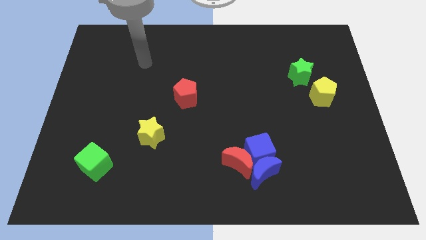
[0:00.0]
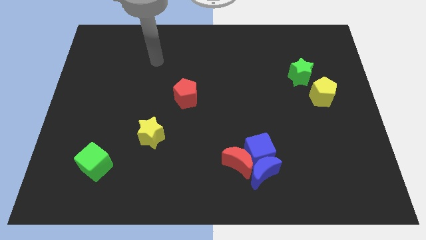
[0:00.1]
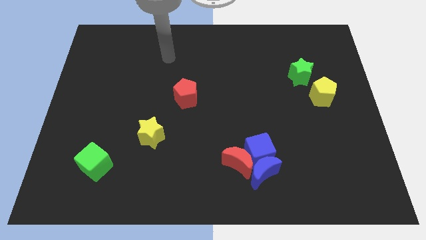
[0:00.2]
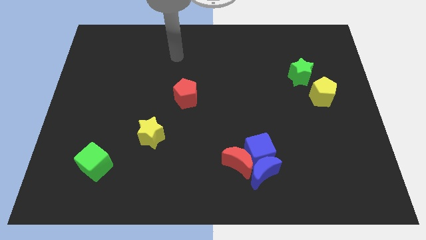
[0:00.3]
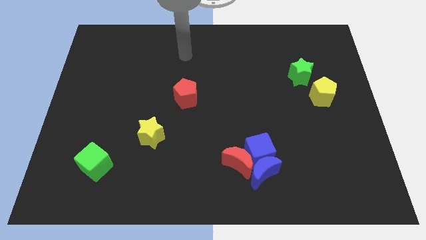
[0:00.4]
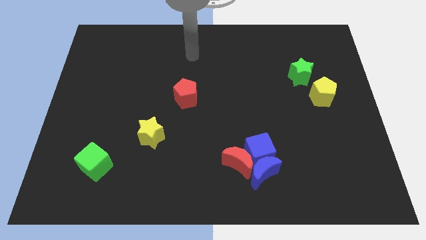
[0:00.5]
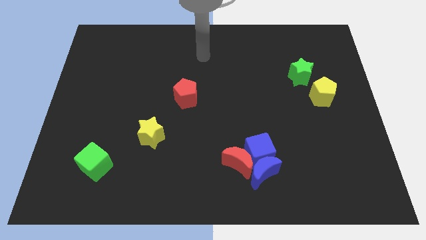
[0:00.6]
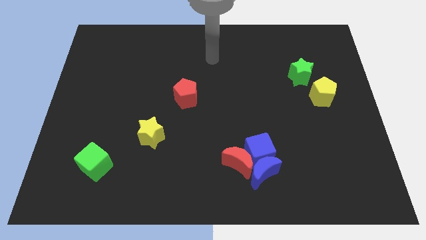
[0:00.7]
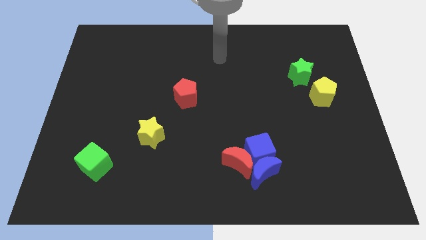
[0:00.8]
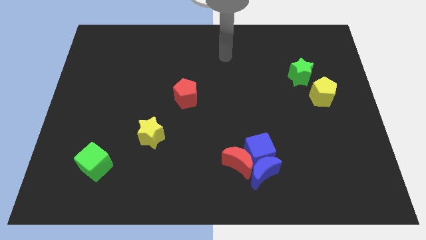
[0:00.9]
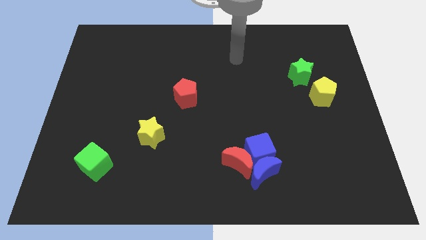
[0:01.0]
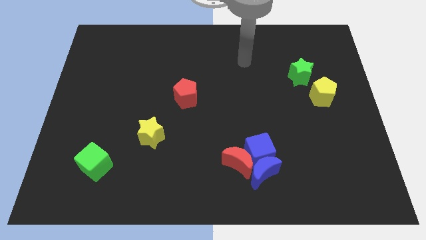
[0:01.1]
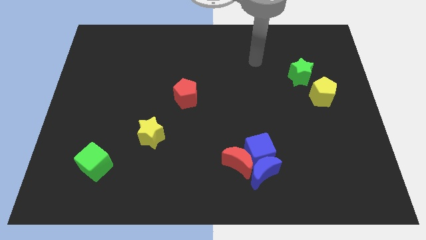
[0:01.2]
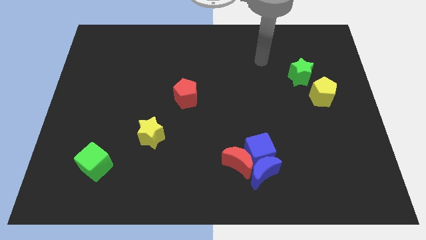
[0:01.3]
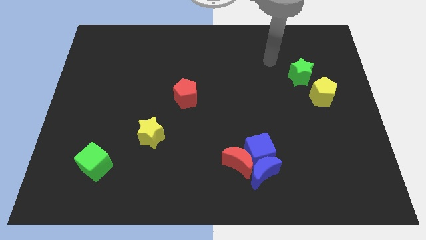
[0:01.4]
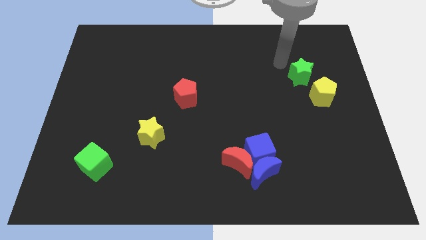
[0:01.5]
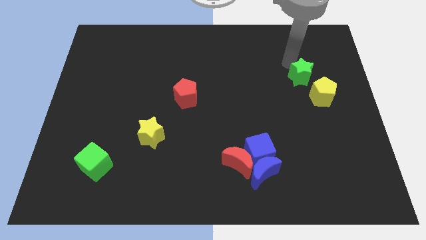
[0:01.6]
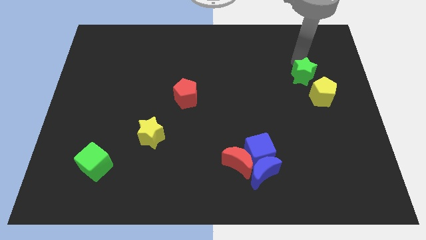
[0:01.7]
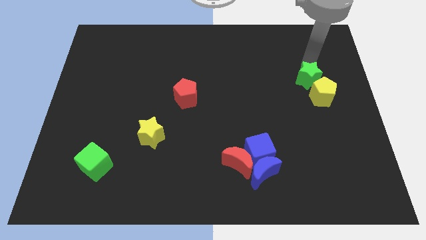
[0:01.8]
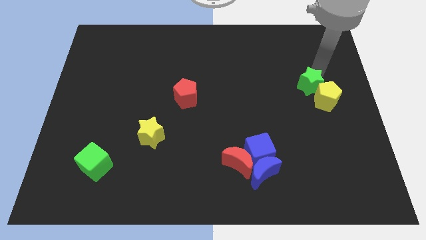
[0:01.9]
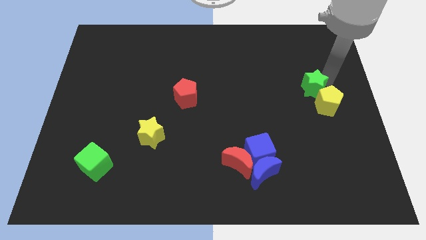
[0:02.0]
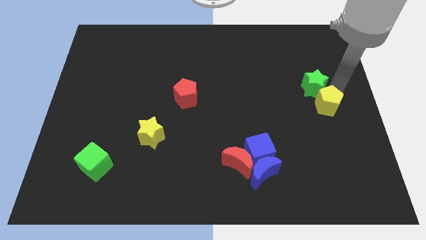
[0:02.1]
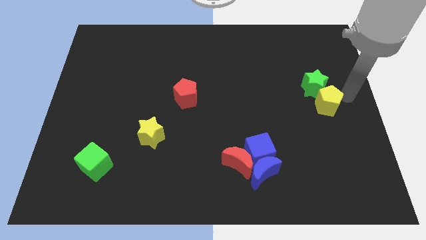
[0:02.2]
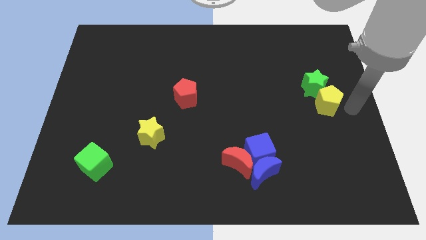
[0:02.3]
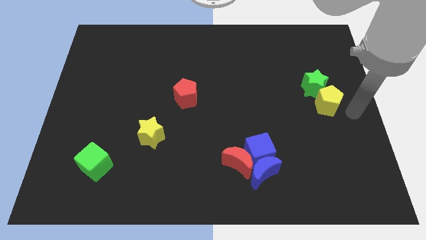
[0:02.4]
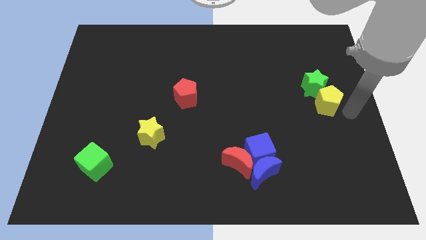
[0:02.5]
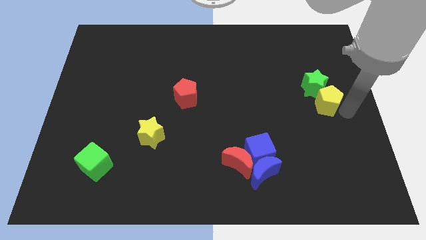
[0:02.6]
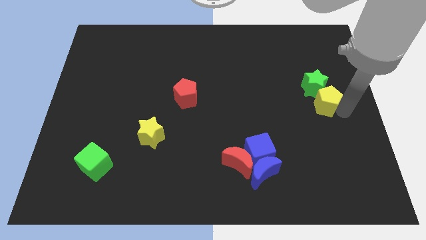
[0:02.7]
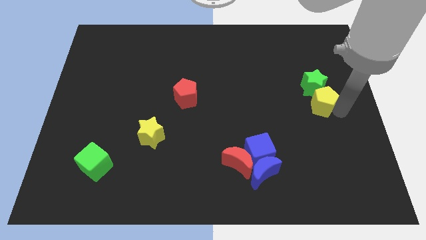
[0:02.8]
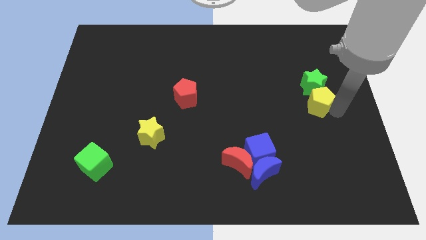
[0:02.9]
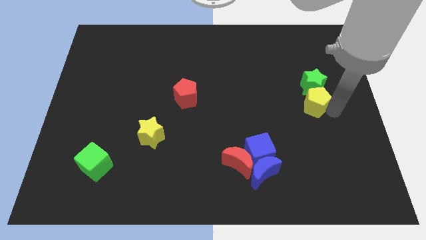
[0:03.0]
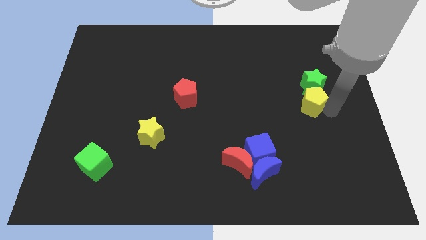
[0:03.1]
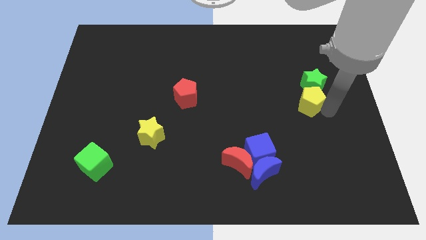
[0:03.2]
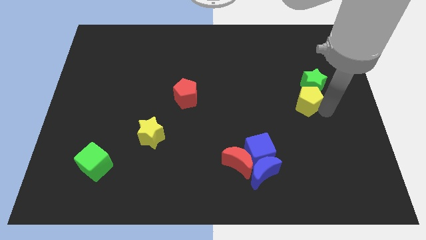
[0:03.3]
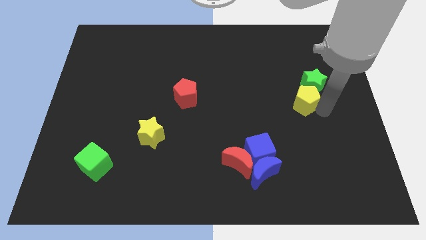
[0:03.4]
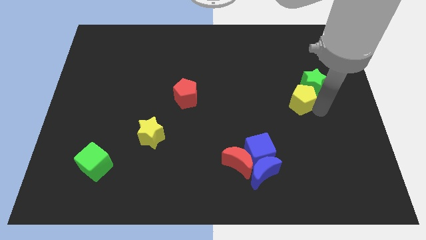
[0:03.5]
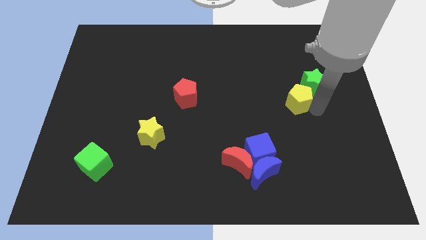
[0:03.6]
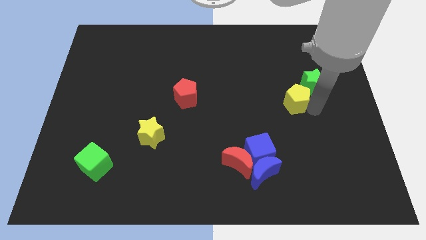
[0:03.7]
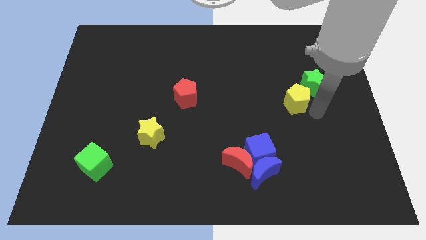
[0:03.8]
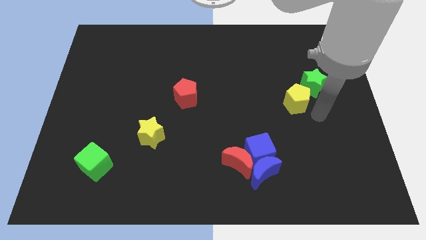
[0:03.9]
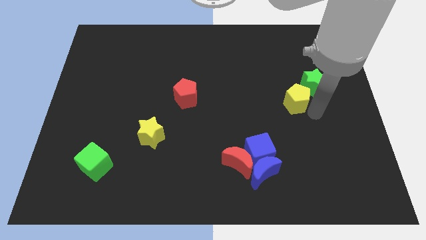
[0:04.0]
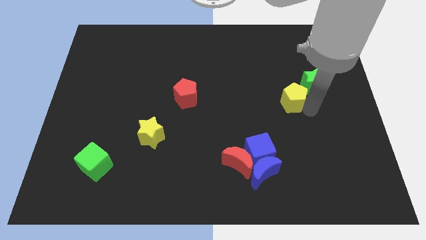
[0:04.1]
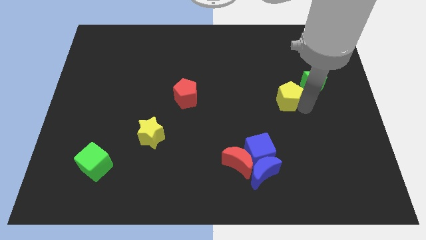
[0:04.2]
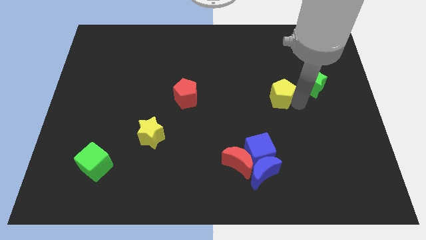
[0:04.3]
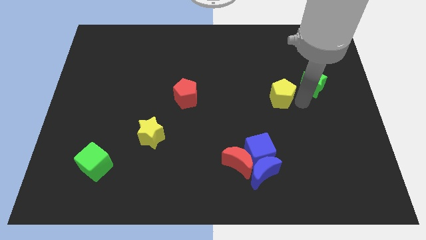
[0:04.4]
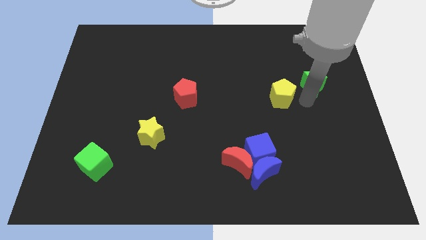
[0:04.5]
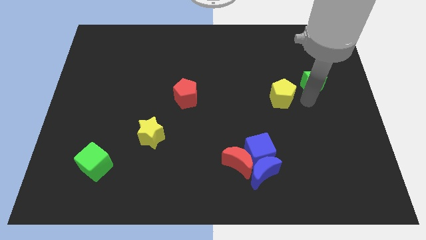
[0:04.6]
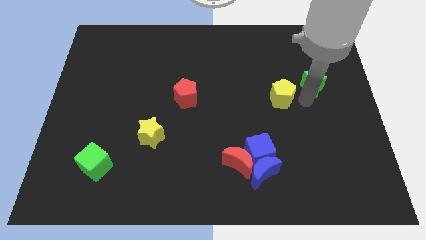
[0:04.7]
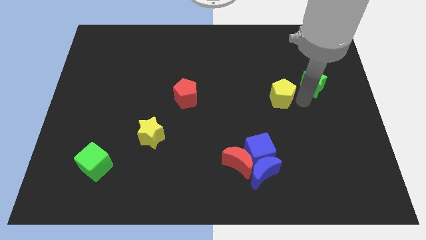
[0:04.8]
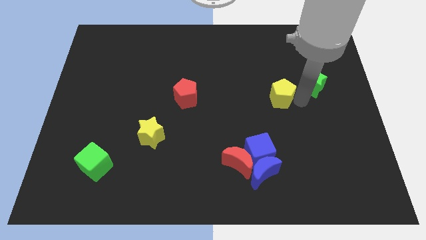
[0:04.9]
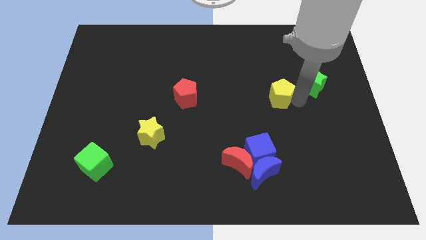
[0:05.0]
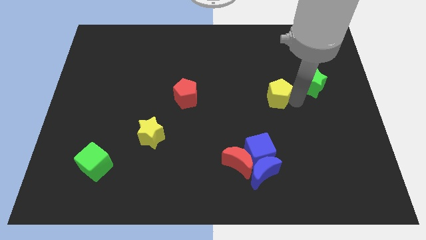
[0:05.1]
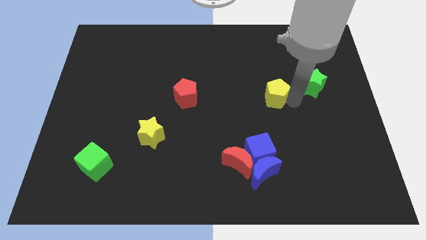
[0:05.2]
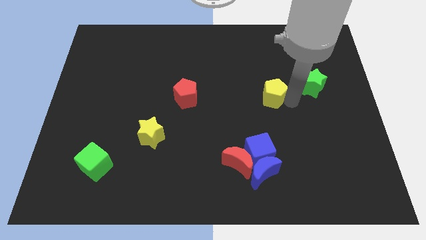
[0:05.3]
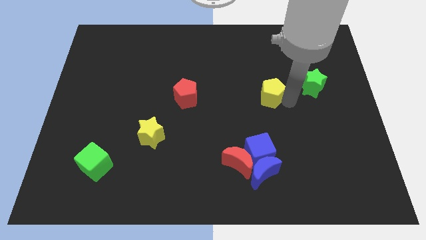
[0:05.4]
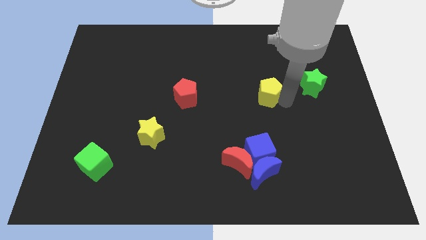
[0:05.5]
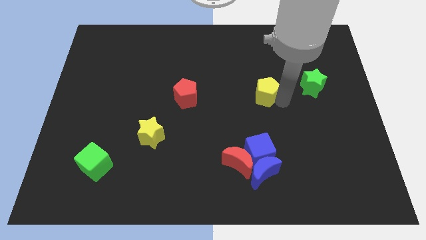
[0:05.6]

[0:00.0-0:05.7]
push the yellow pentagon to the center

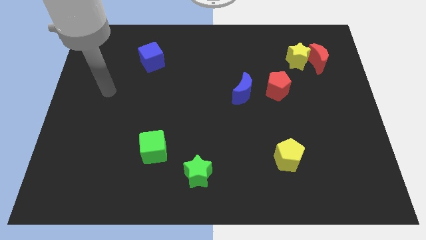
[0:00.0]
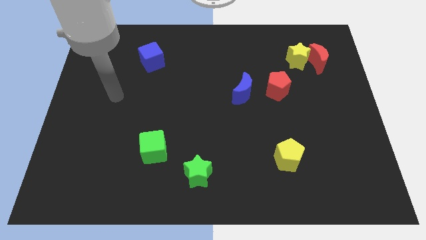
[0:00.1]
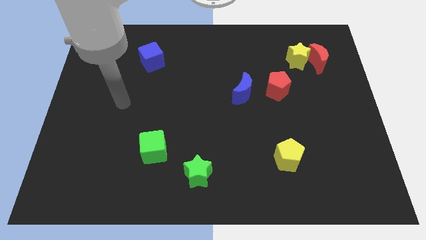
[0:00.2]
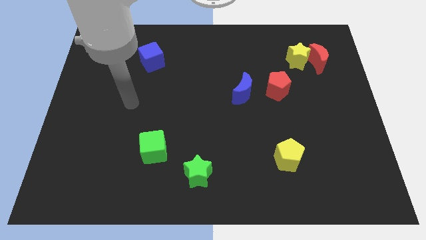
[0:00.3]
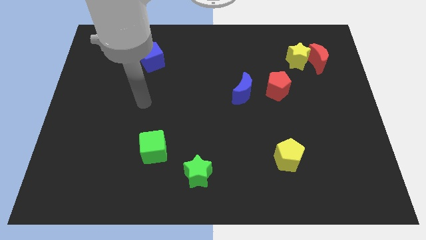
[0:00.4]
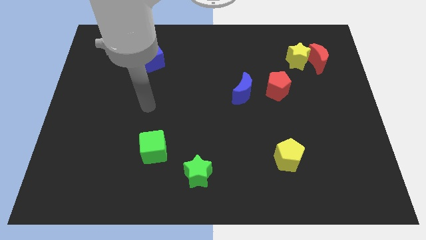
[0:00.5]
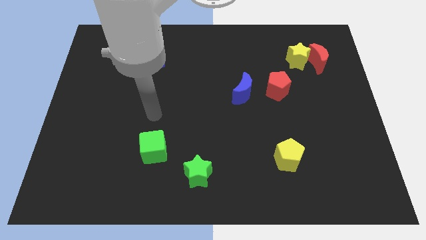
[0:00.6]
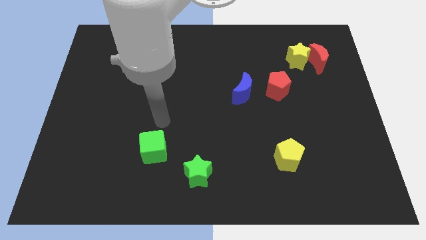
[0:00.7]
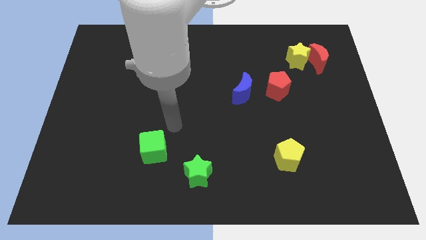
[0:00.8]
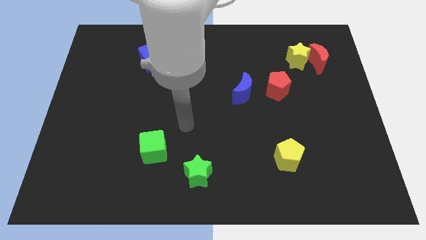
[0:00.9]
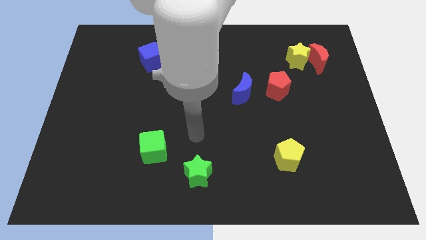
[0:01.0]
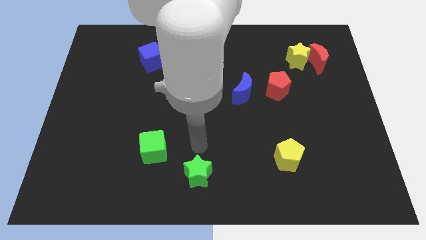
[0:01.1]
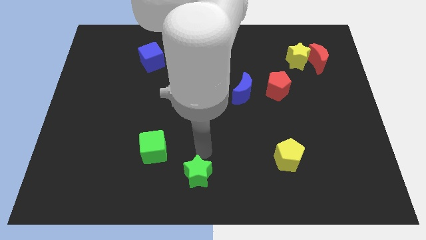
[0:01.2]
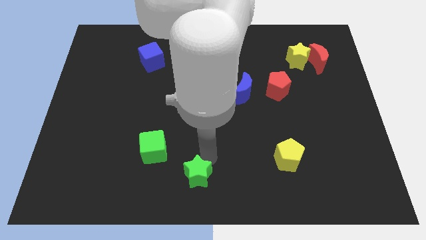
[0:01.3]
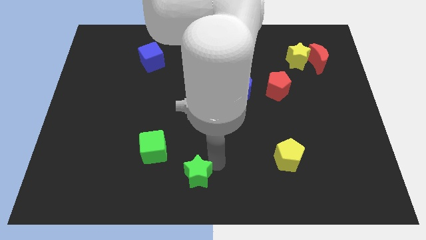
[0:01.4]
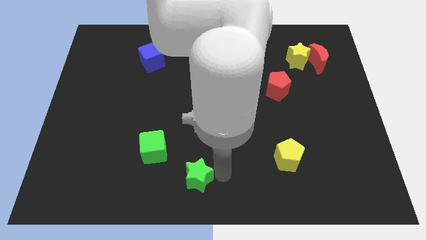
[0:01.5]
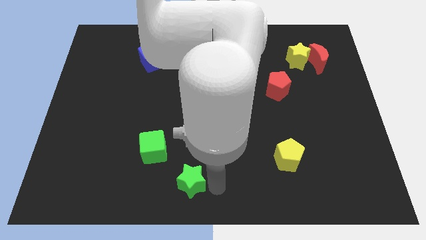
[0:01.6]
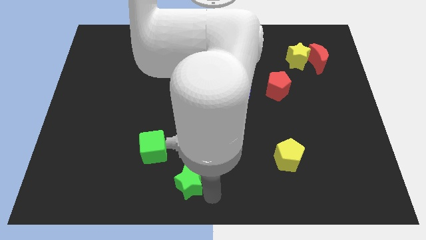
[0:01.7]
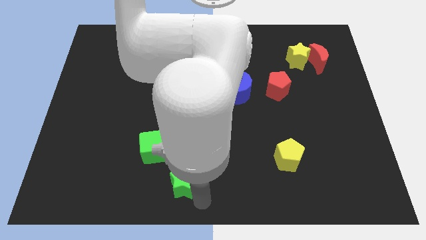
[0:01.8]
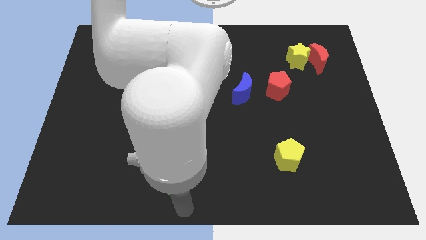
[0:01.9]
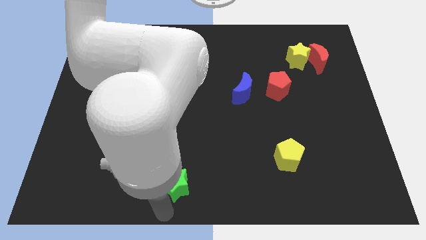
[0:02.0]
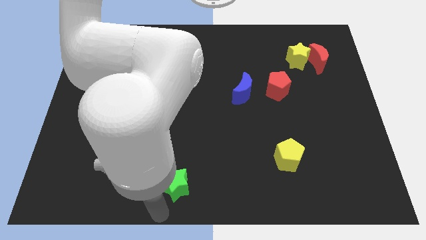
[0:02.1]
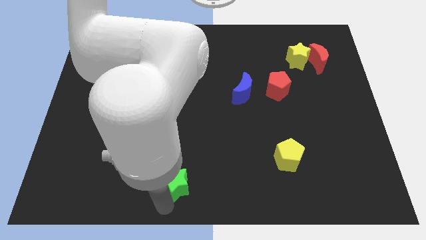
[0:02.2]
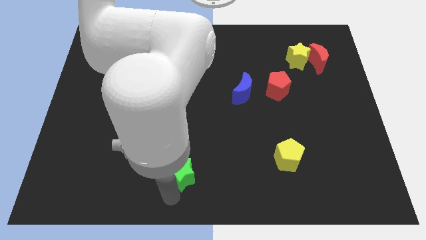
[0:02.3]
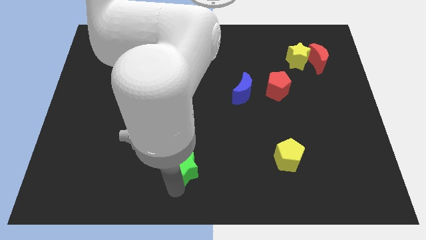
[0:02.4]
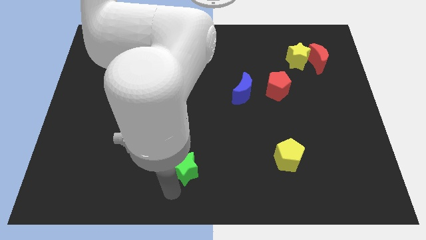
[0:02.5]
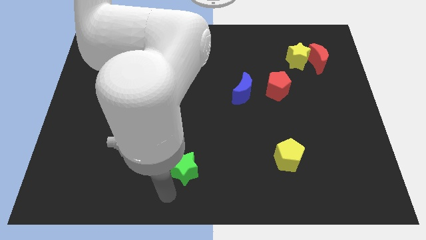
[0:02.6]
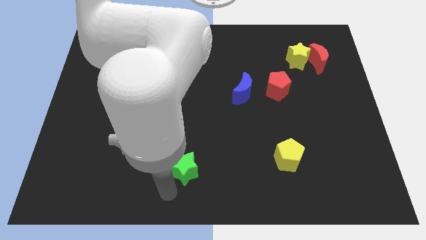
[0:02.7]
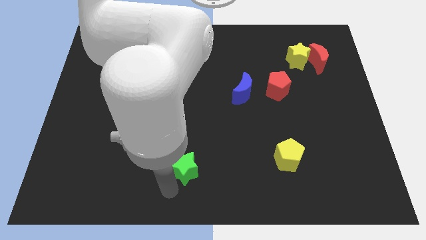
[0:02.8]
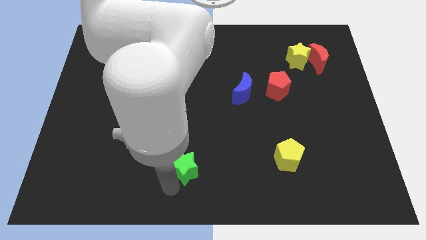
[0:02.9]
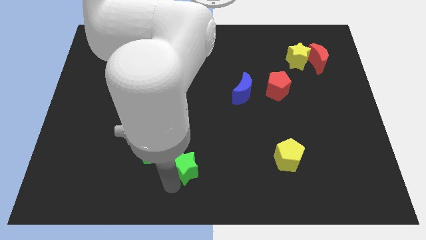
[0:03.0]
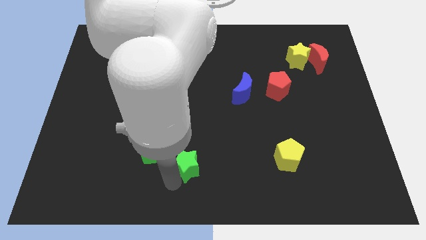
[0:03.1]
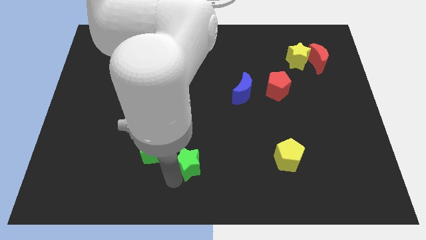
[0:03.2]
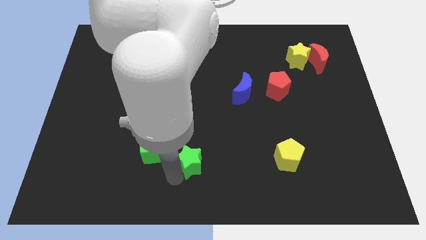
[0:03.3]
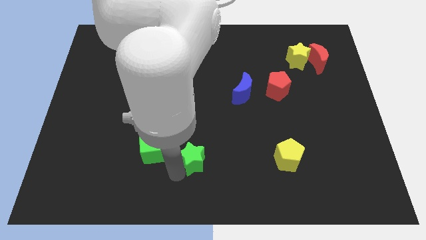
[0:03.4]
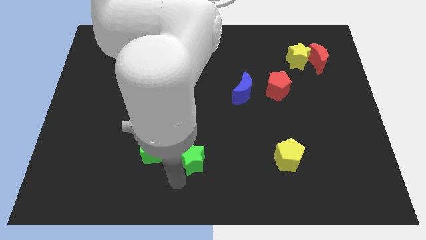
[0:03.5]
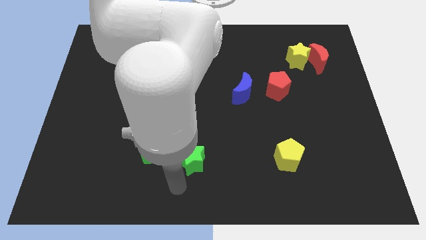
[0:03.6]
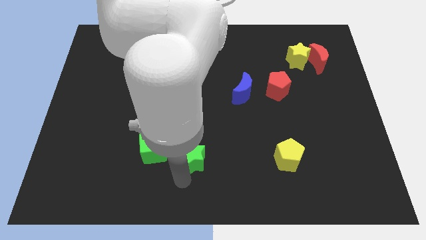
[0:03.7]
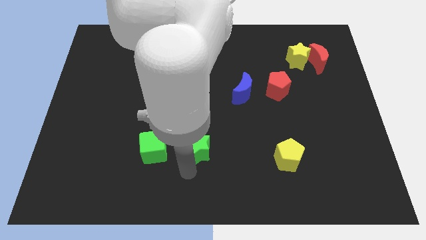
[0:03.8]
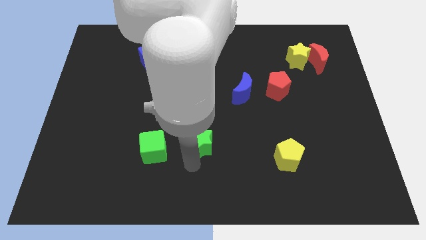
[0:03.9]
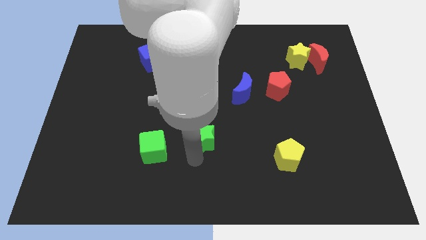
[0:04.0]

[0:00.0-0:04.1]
push the green star to the center
